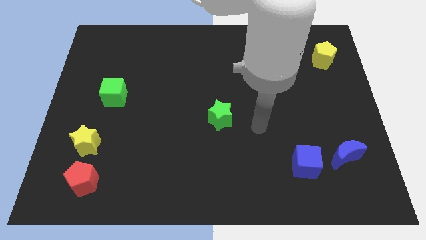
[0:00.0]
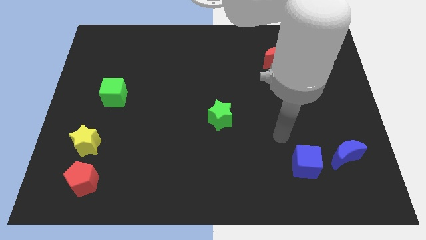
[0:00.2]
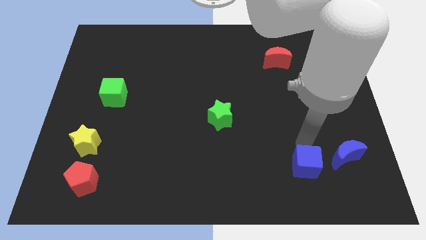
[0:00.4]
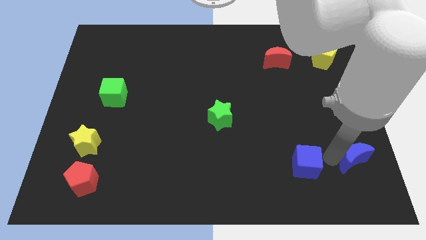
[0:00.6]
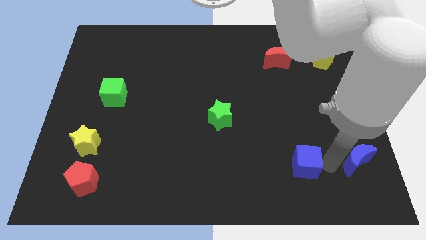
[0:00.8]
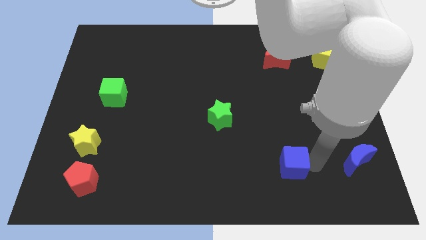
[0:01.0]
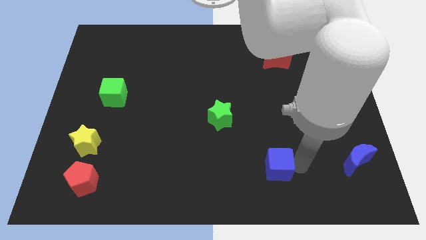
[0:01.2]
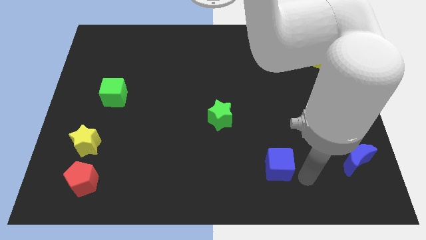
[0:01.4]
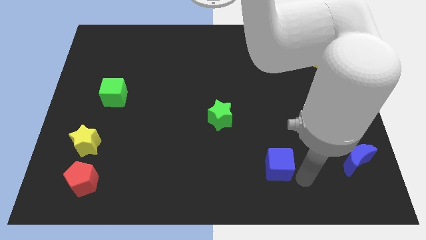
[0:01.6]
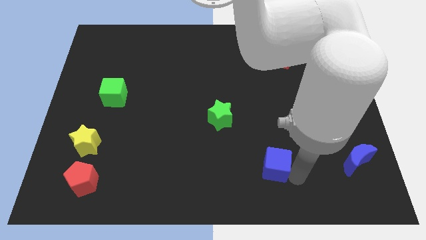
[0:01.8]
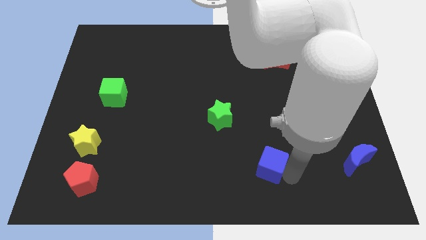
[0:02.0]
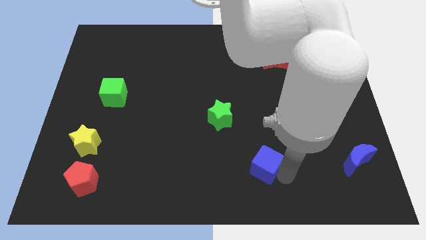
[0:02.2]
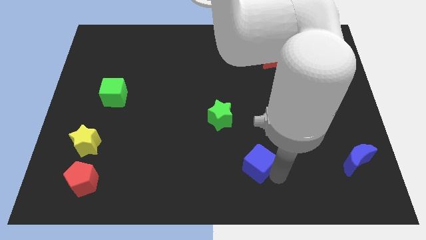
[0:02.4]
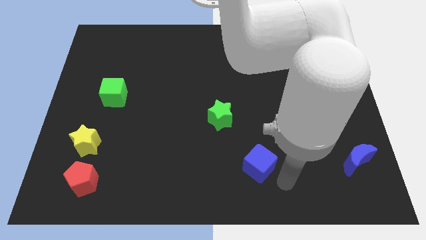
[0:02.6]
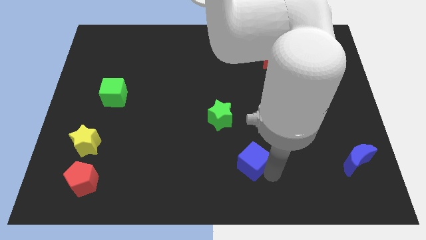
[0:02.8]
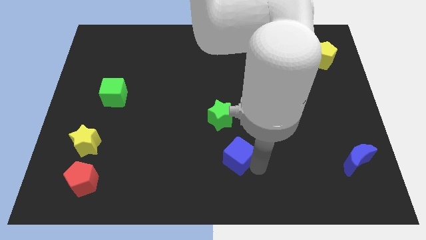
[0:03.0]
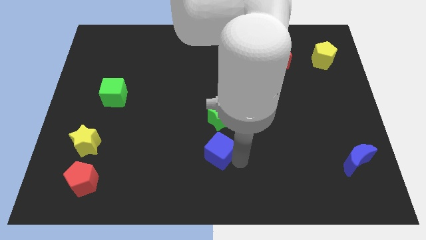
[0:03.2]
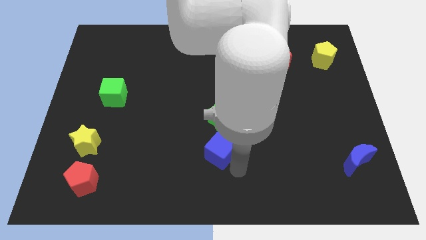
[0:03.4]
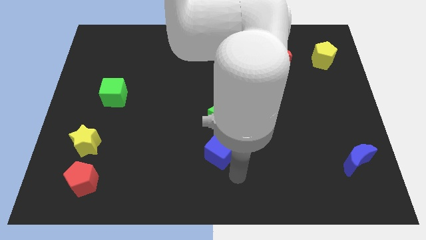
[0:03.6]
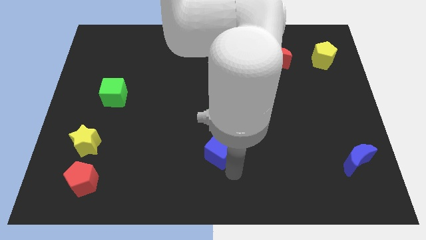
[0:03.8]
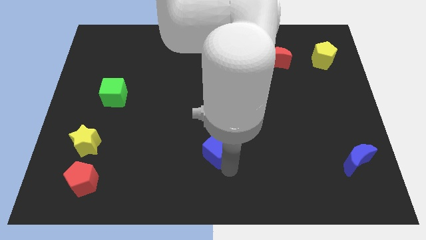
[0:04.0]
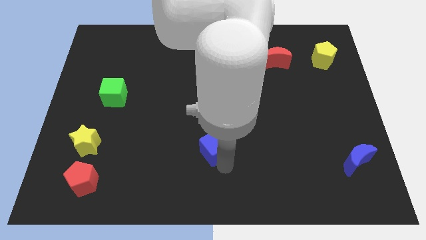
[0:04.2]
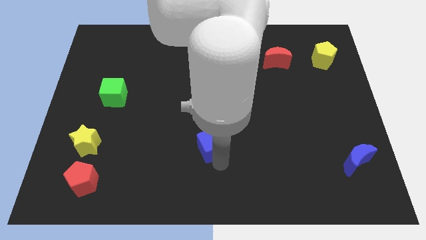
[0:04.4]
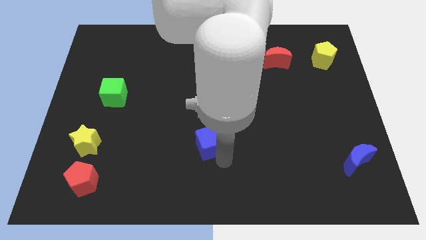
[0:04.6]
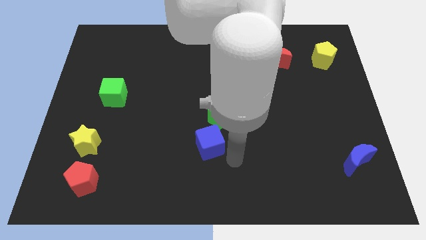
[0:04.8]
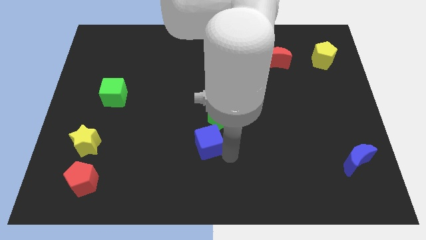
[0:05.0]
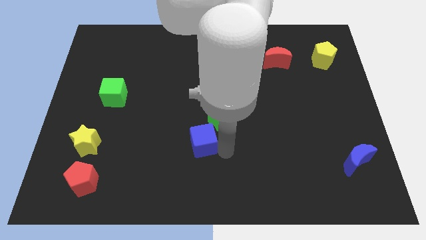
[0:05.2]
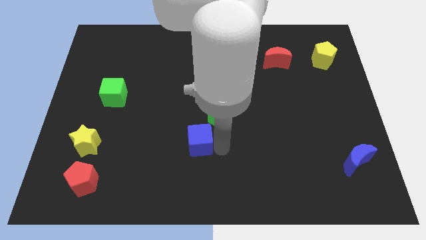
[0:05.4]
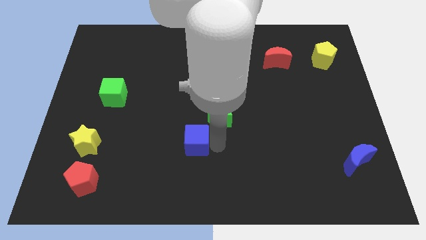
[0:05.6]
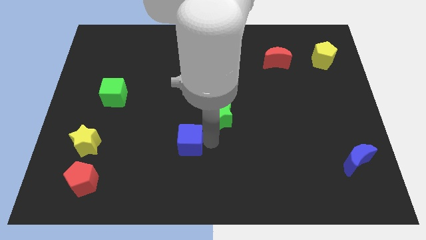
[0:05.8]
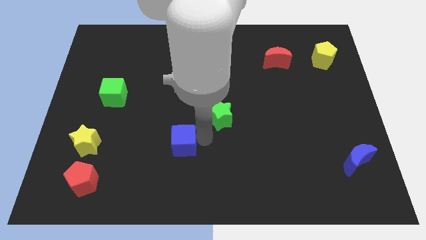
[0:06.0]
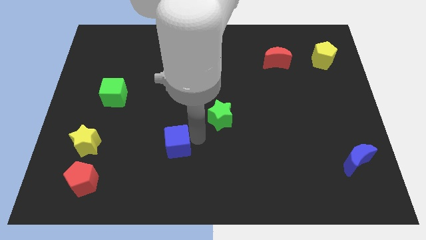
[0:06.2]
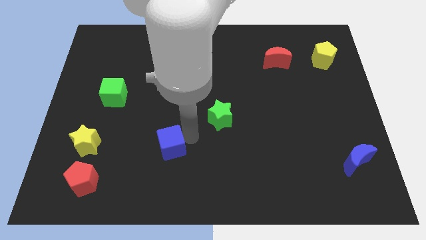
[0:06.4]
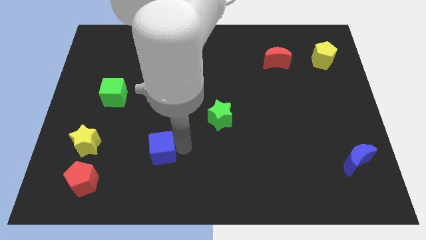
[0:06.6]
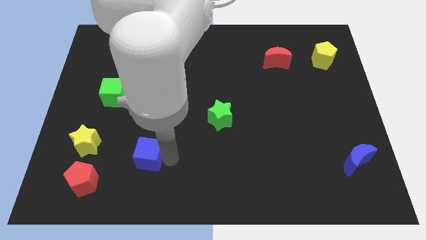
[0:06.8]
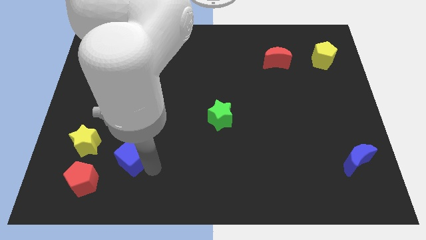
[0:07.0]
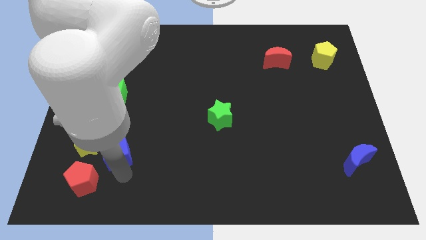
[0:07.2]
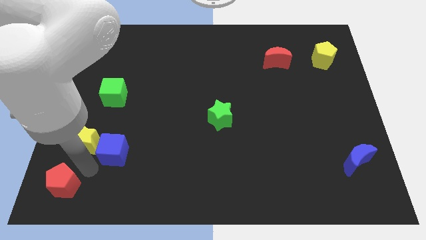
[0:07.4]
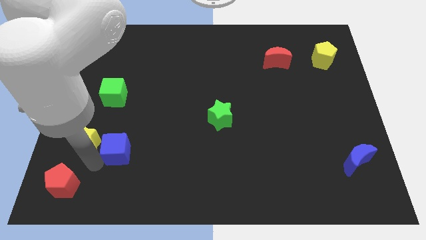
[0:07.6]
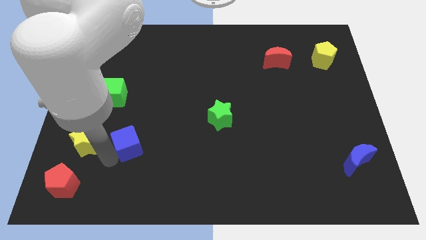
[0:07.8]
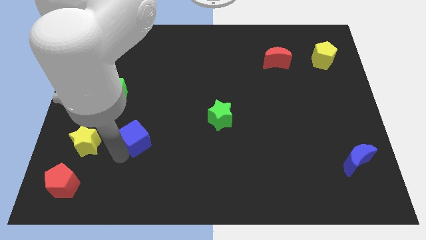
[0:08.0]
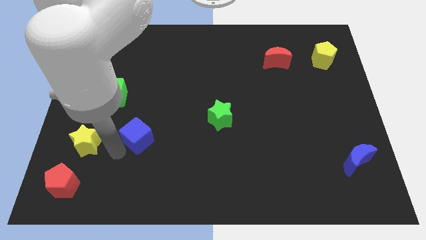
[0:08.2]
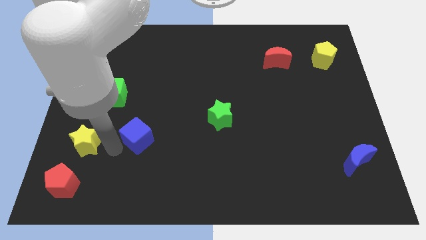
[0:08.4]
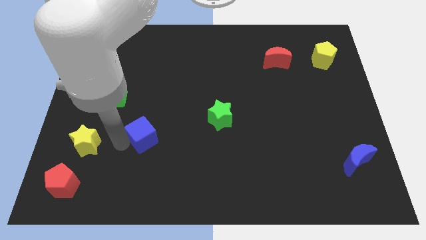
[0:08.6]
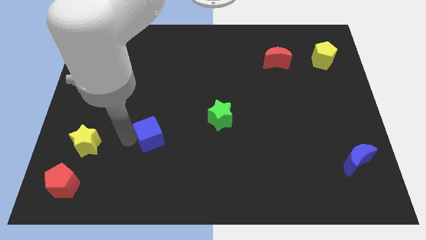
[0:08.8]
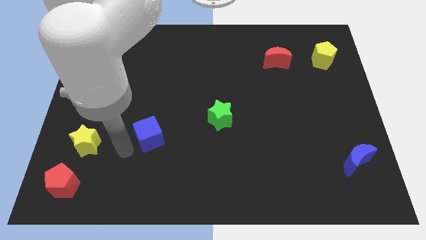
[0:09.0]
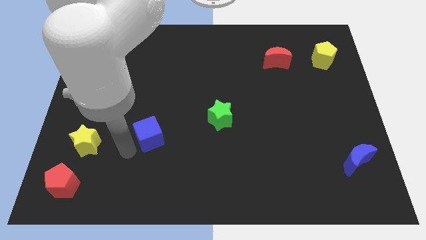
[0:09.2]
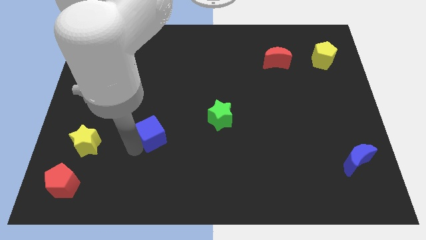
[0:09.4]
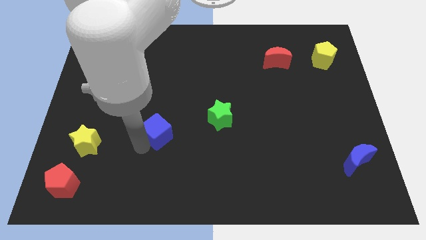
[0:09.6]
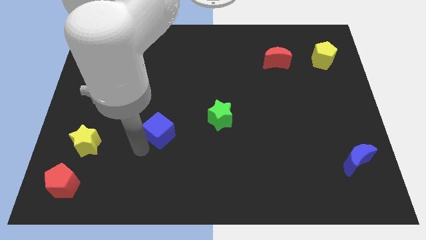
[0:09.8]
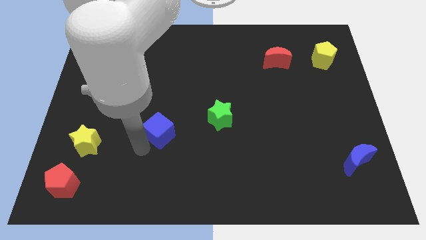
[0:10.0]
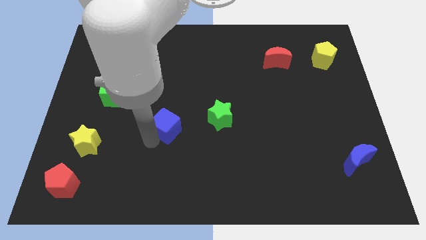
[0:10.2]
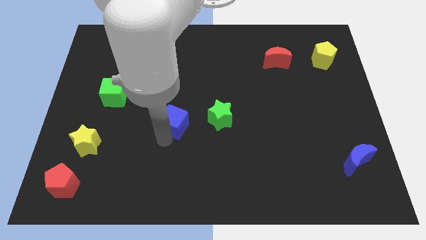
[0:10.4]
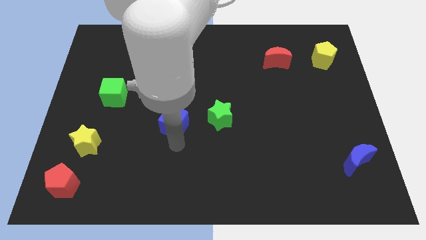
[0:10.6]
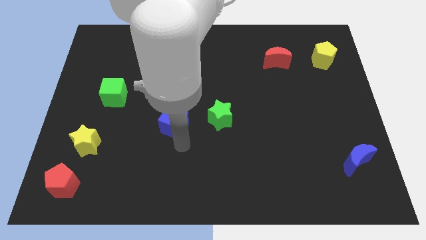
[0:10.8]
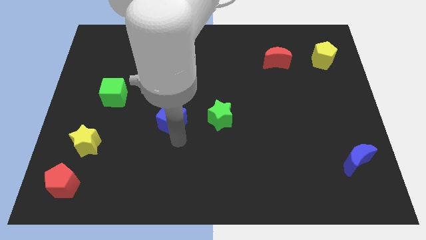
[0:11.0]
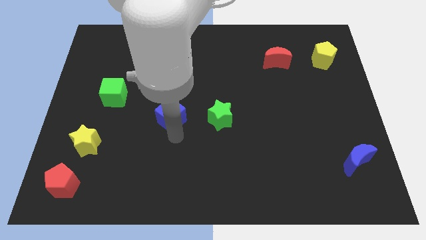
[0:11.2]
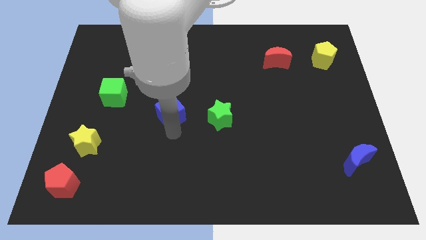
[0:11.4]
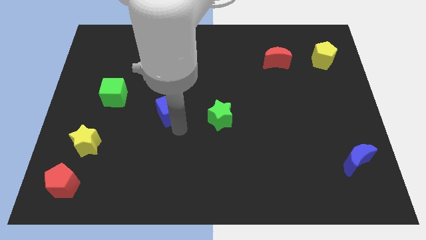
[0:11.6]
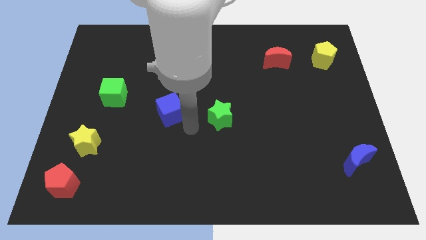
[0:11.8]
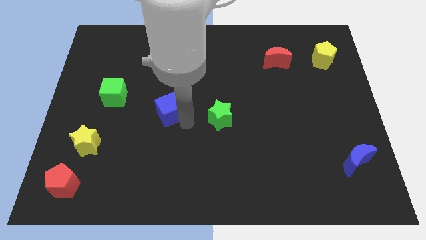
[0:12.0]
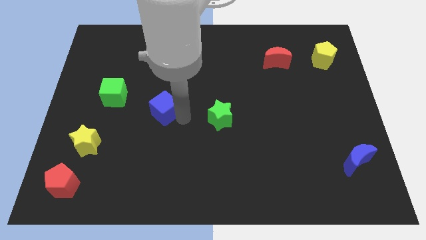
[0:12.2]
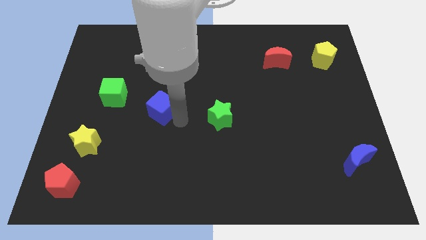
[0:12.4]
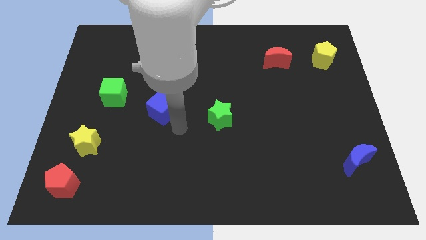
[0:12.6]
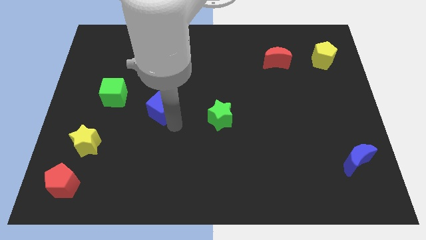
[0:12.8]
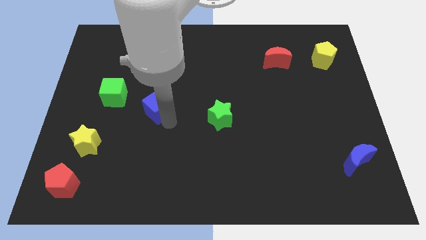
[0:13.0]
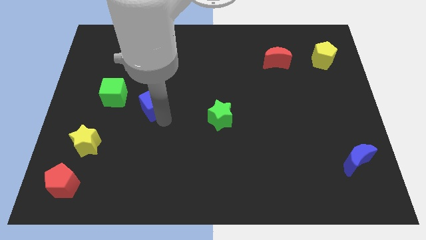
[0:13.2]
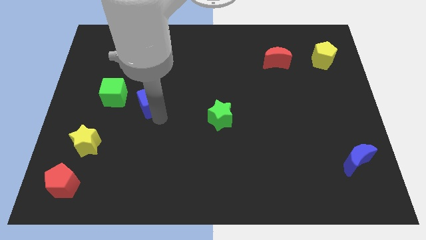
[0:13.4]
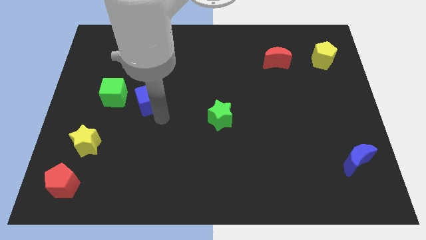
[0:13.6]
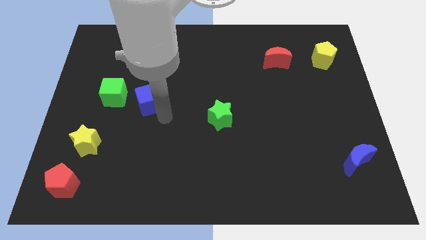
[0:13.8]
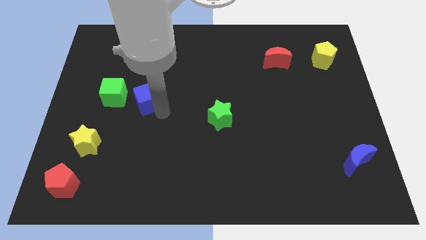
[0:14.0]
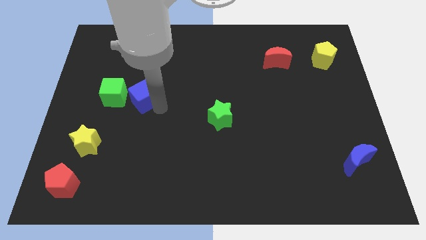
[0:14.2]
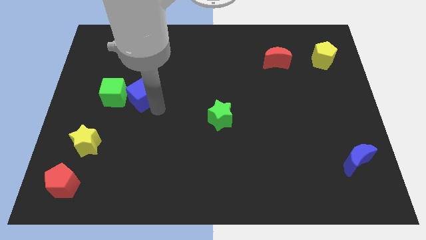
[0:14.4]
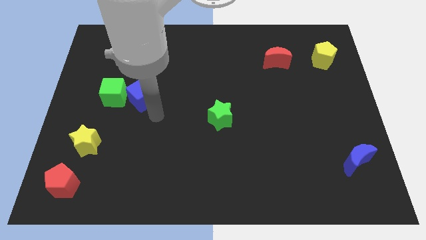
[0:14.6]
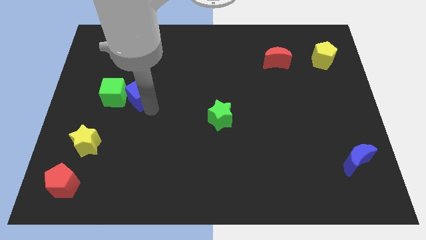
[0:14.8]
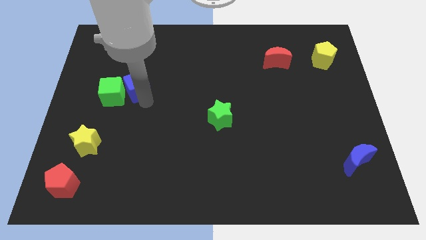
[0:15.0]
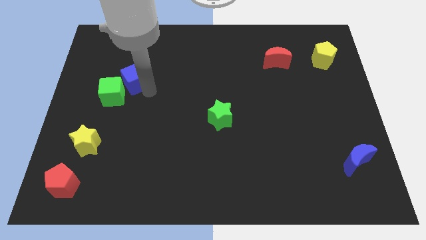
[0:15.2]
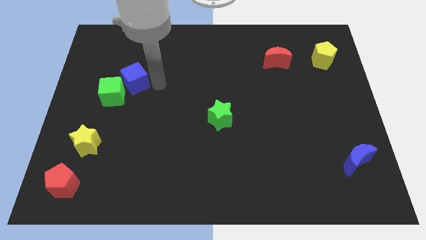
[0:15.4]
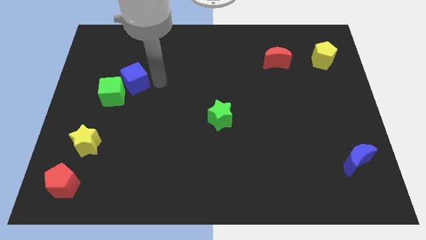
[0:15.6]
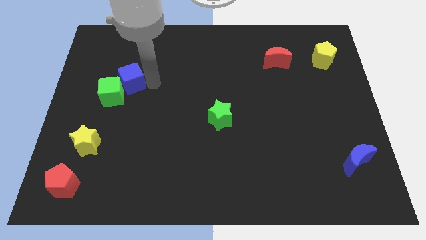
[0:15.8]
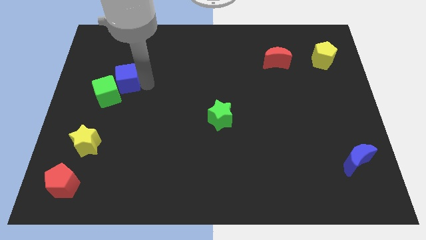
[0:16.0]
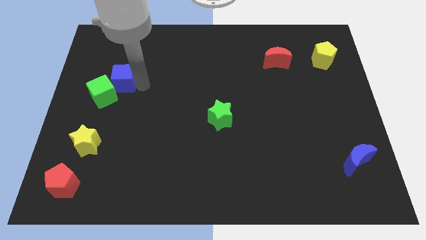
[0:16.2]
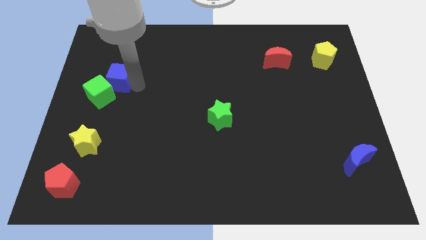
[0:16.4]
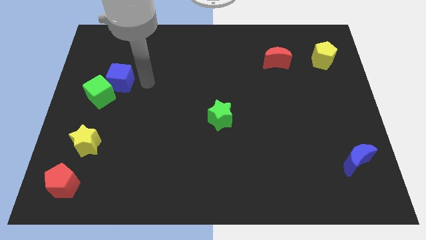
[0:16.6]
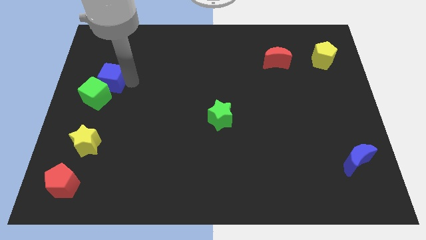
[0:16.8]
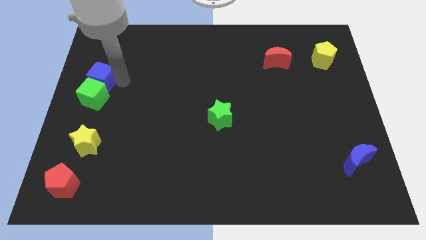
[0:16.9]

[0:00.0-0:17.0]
put the blue cube diagonally up and to the left of the green cube
